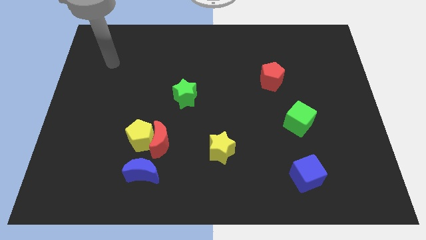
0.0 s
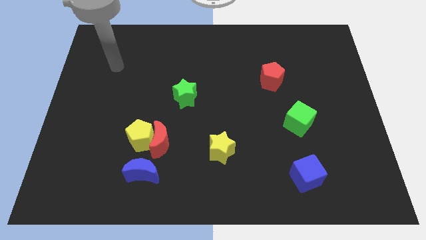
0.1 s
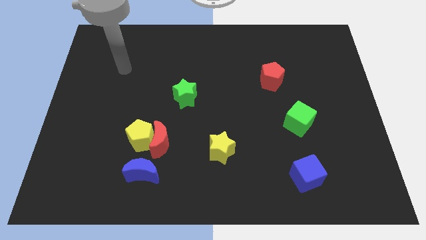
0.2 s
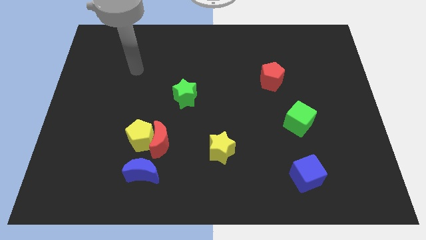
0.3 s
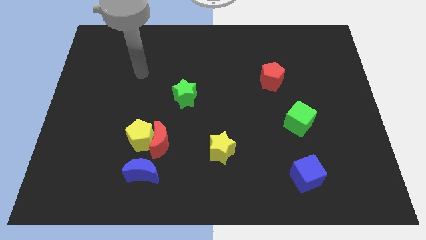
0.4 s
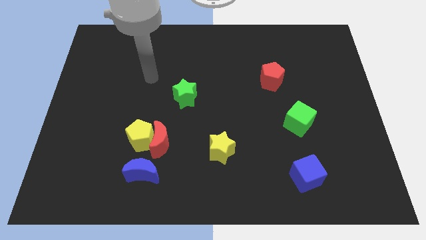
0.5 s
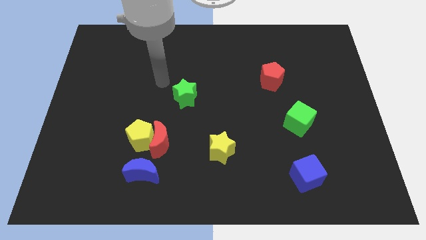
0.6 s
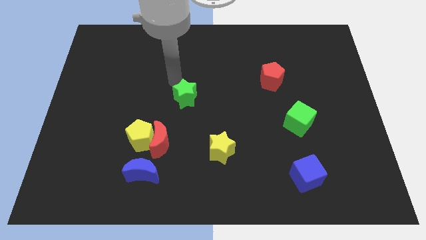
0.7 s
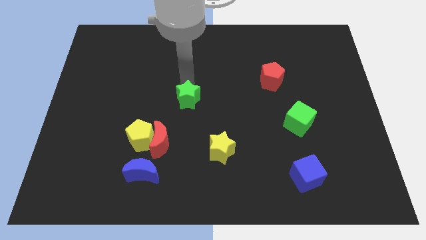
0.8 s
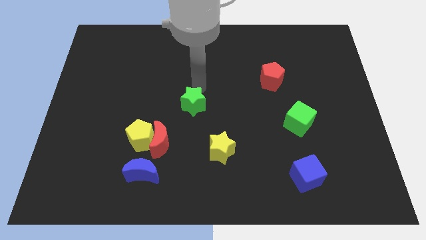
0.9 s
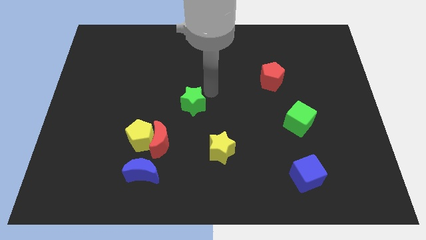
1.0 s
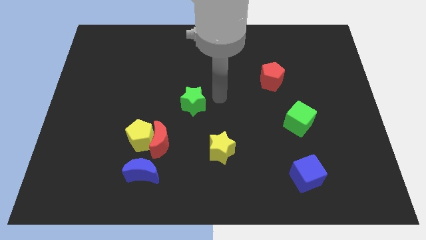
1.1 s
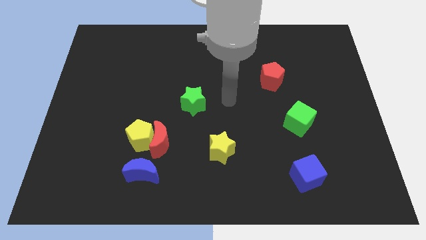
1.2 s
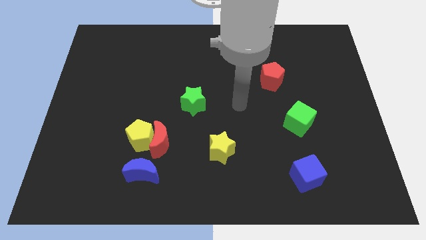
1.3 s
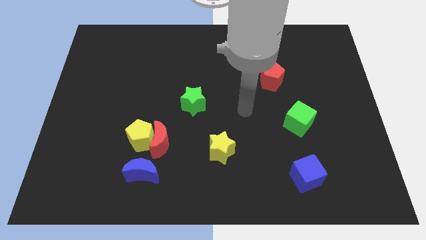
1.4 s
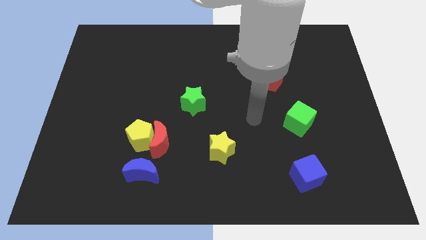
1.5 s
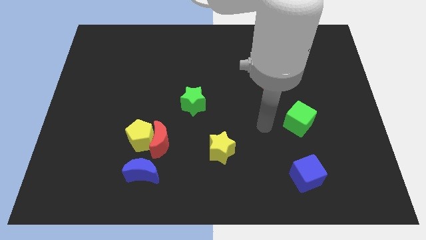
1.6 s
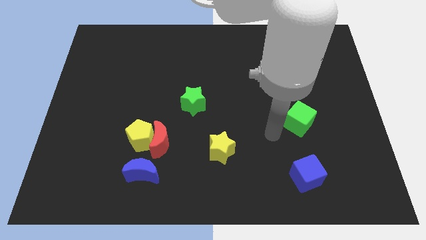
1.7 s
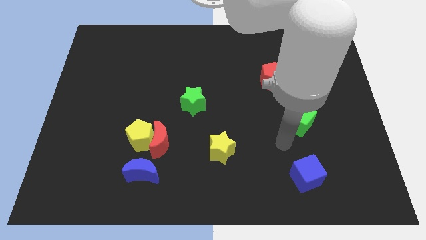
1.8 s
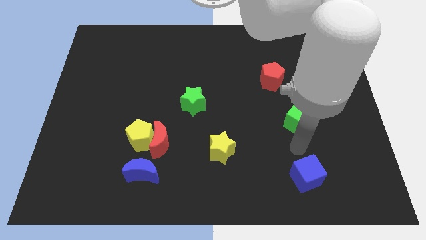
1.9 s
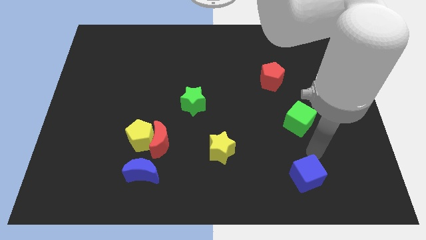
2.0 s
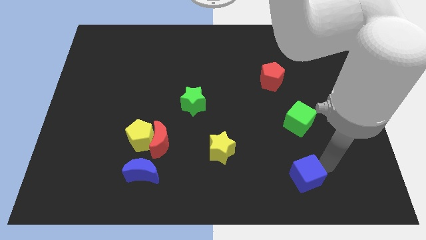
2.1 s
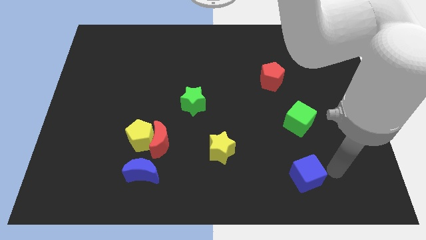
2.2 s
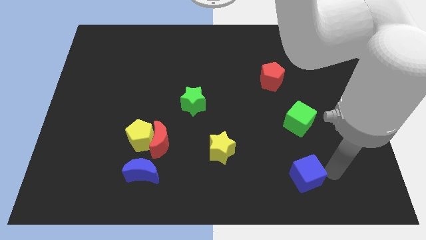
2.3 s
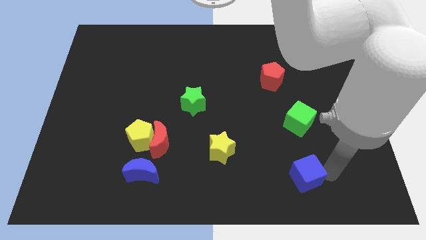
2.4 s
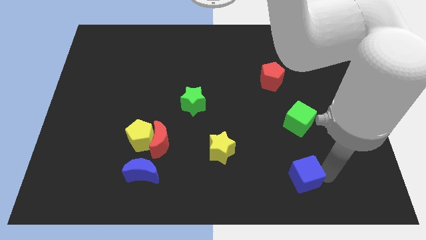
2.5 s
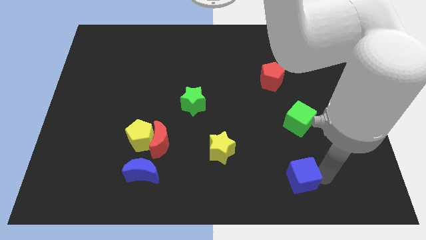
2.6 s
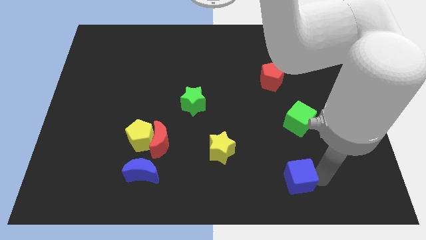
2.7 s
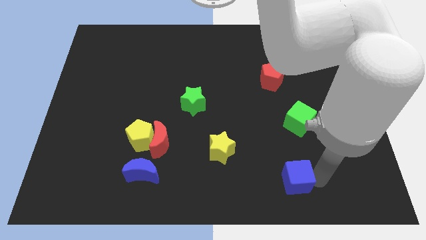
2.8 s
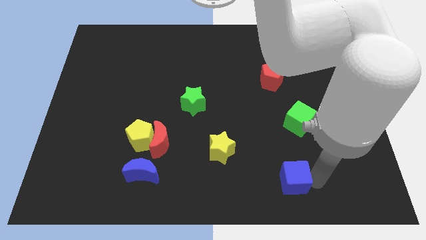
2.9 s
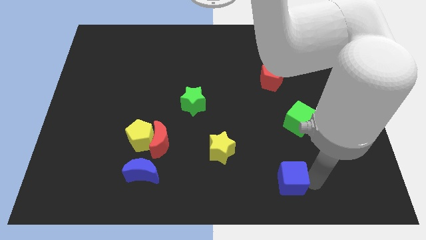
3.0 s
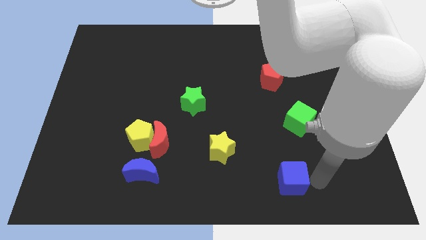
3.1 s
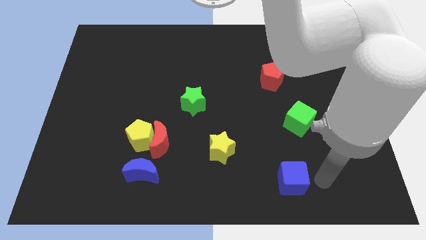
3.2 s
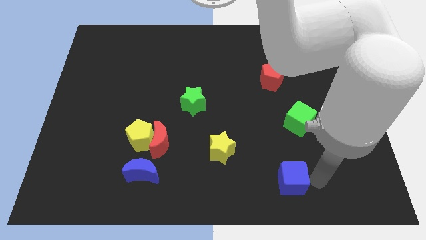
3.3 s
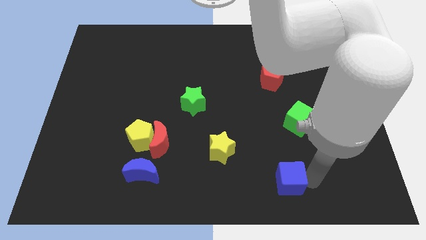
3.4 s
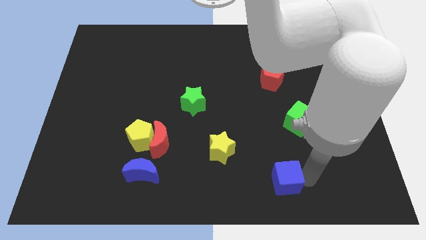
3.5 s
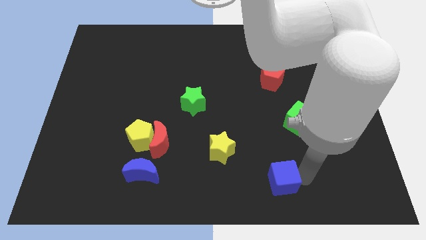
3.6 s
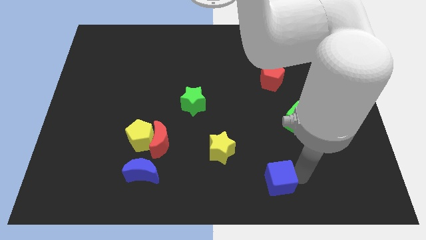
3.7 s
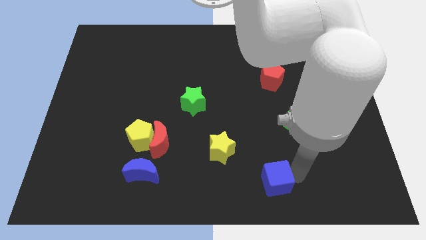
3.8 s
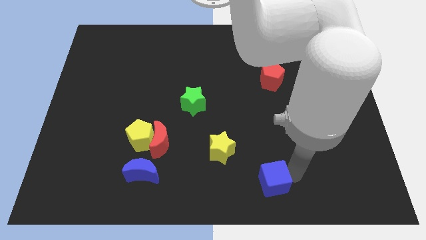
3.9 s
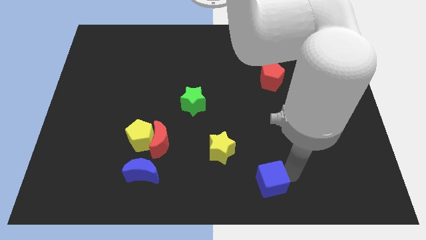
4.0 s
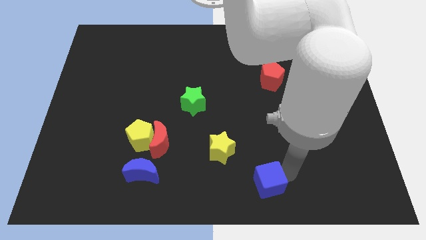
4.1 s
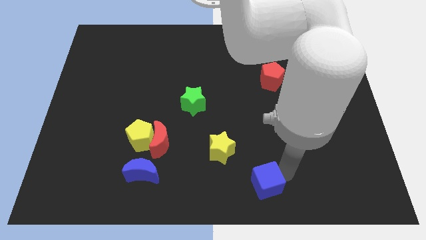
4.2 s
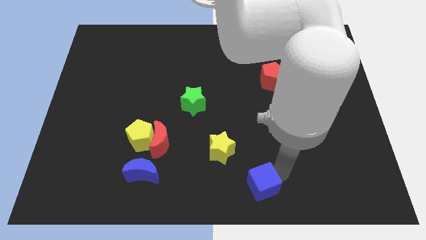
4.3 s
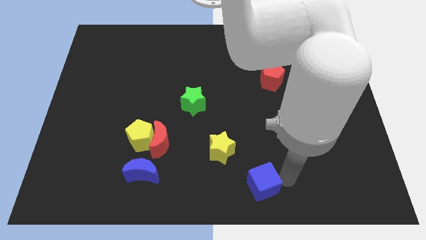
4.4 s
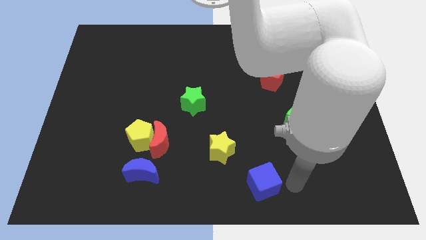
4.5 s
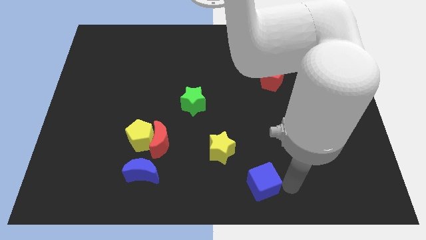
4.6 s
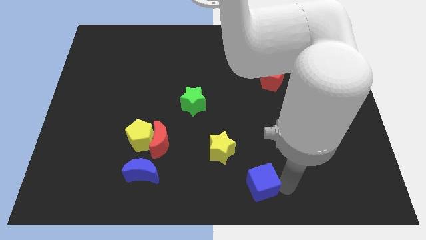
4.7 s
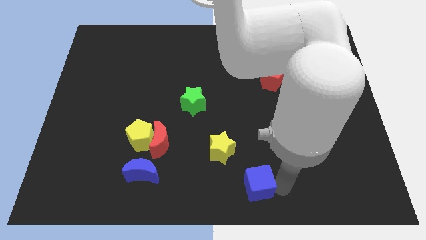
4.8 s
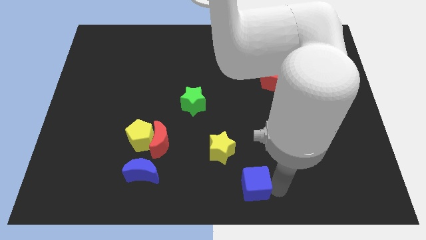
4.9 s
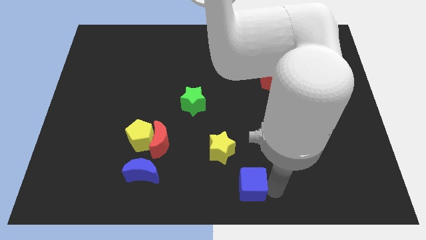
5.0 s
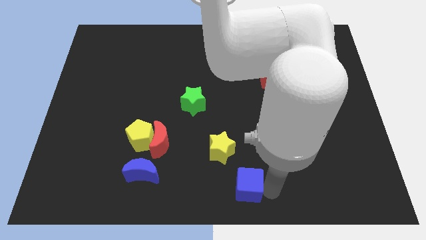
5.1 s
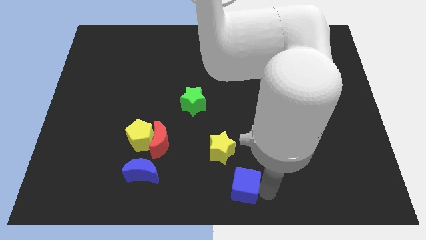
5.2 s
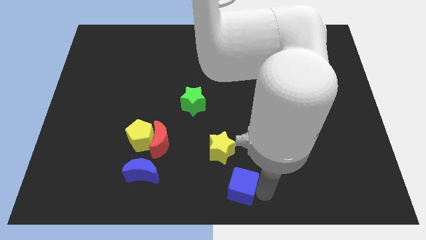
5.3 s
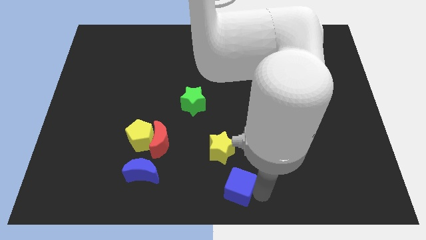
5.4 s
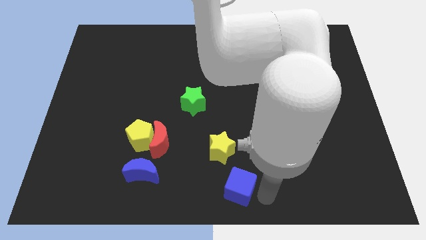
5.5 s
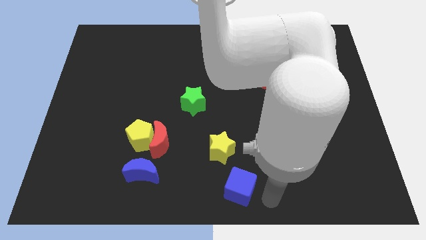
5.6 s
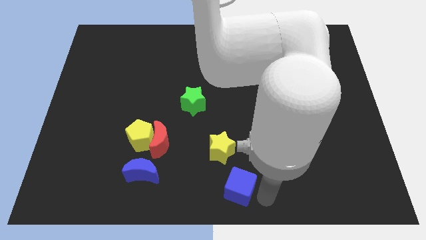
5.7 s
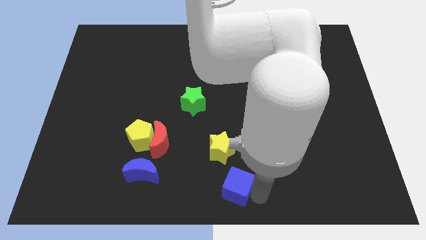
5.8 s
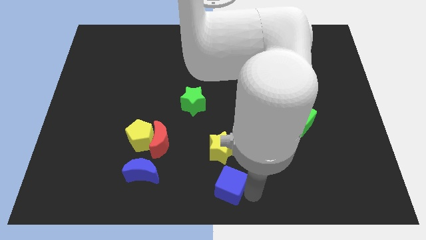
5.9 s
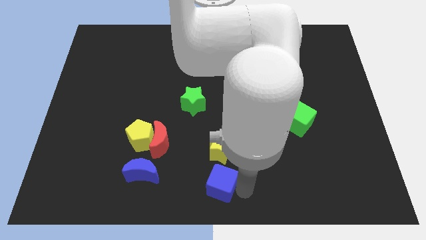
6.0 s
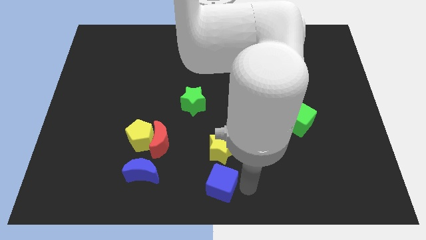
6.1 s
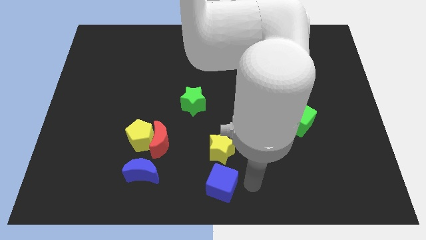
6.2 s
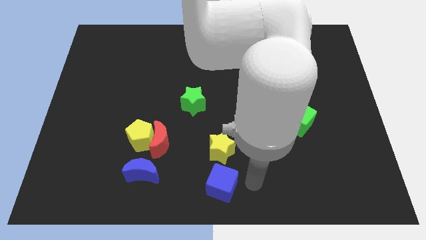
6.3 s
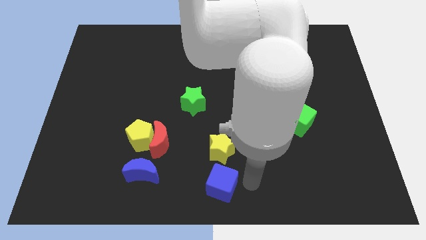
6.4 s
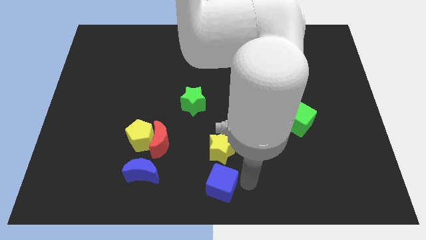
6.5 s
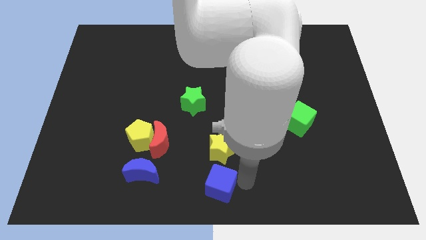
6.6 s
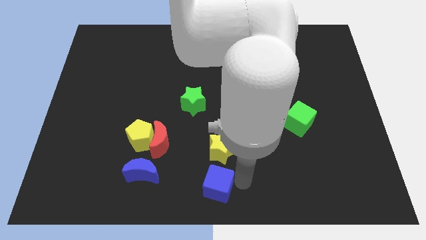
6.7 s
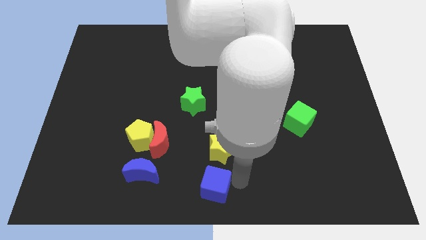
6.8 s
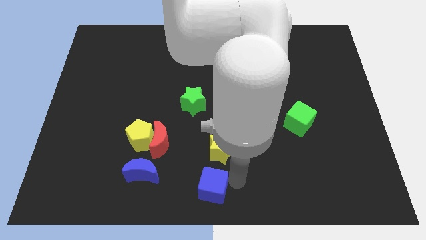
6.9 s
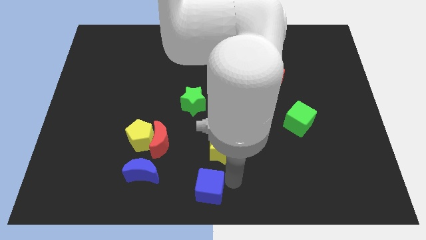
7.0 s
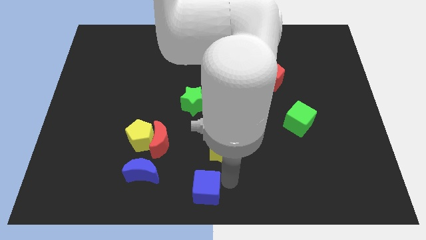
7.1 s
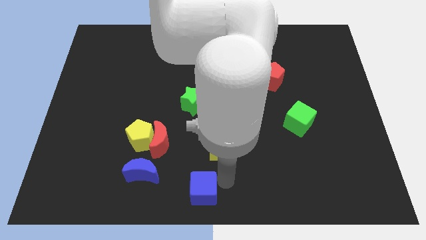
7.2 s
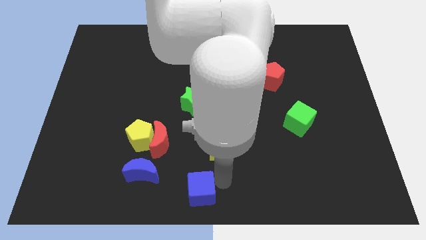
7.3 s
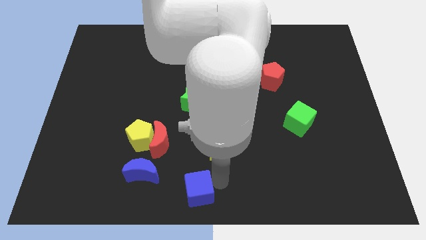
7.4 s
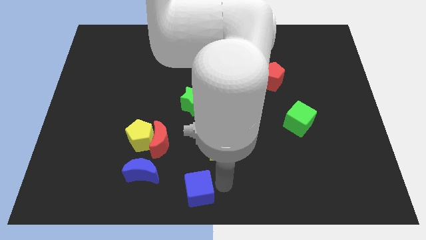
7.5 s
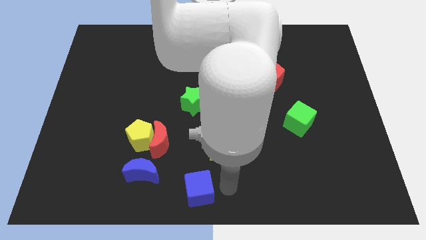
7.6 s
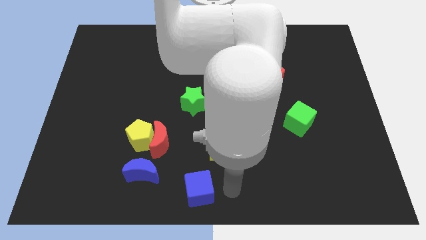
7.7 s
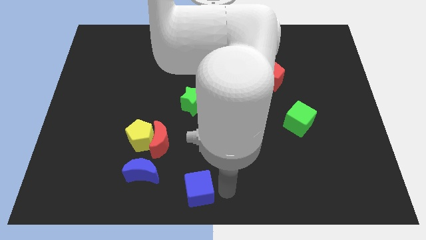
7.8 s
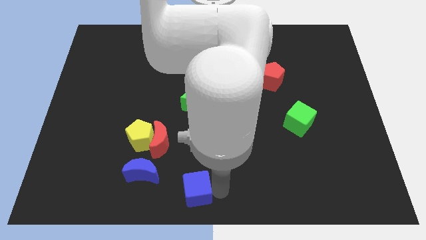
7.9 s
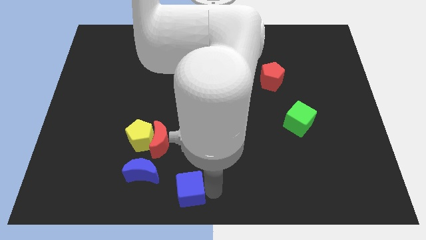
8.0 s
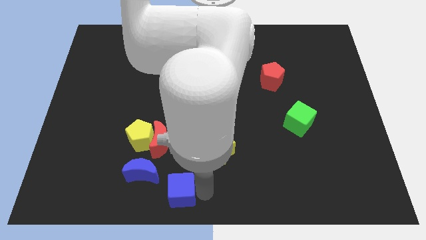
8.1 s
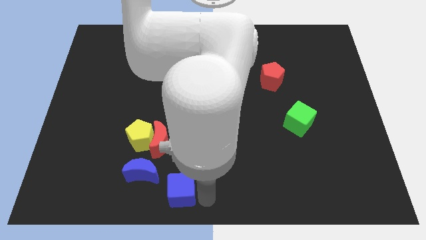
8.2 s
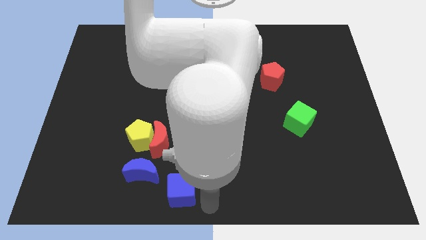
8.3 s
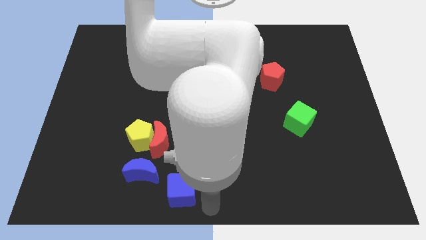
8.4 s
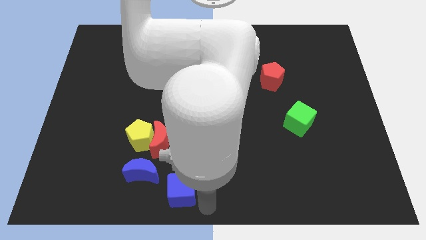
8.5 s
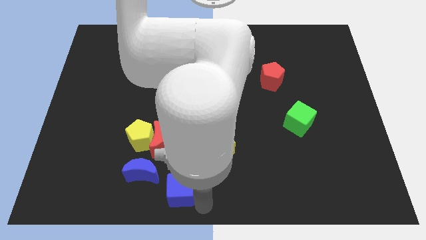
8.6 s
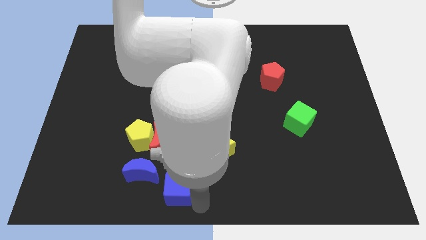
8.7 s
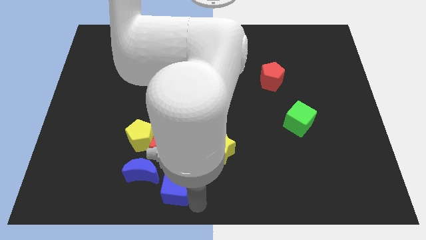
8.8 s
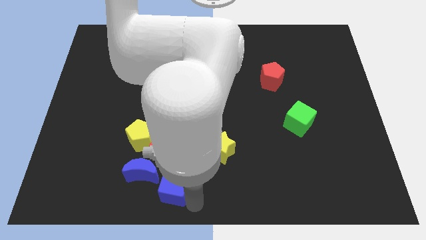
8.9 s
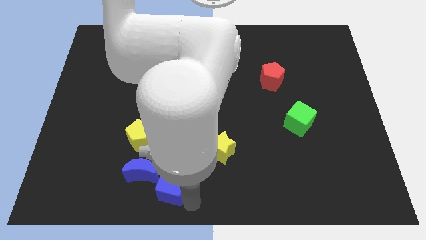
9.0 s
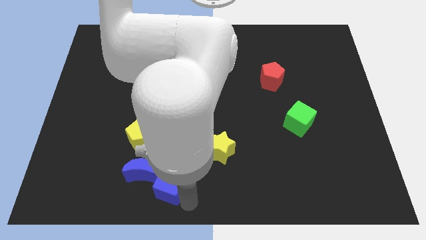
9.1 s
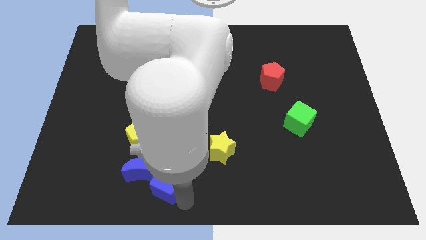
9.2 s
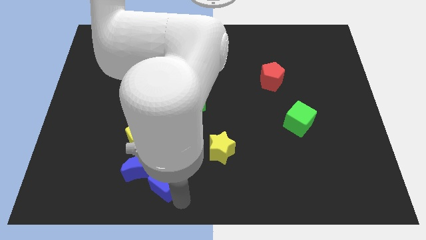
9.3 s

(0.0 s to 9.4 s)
push the blue cube towards the blue moon
